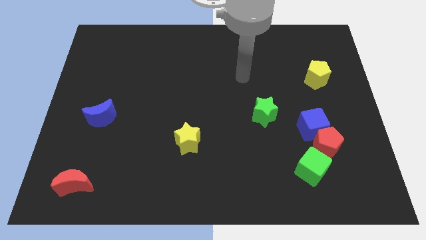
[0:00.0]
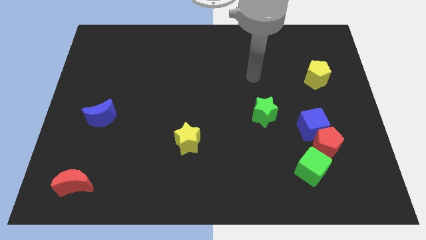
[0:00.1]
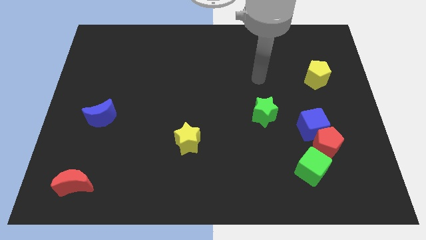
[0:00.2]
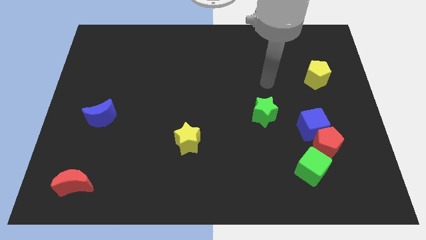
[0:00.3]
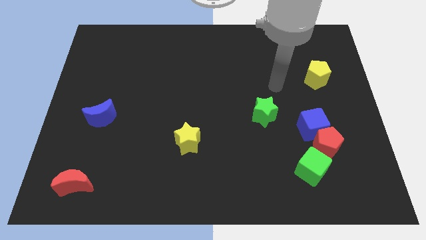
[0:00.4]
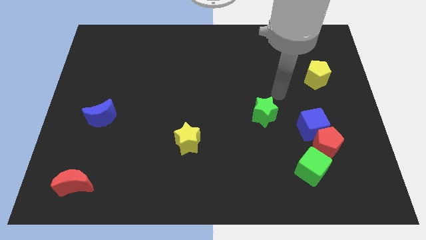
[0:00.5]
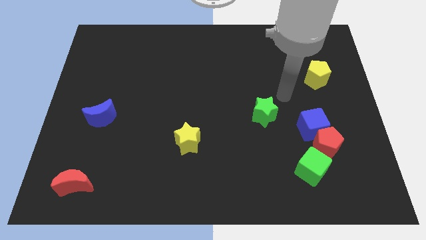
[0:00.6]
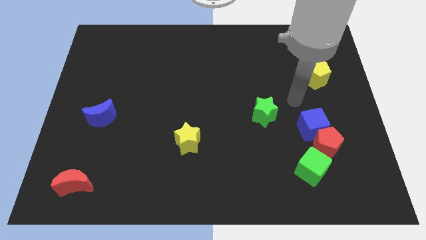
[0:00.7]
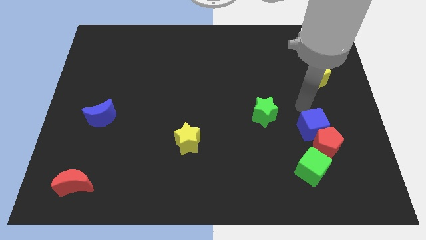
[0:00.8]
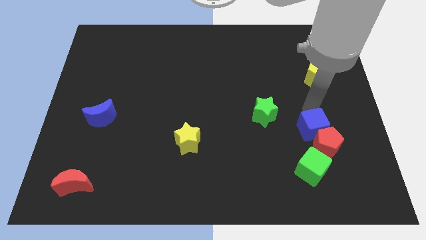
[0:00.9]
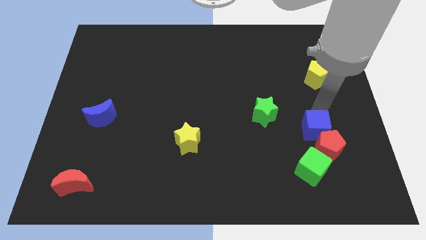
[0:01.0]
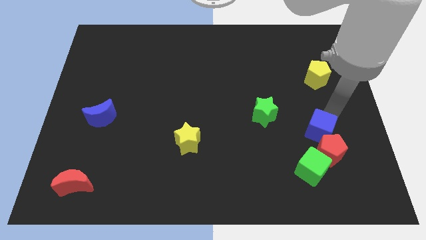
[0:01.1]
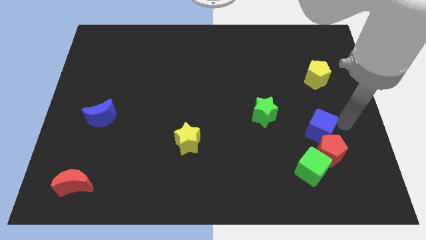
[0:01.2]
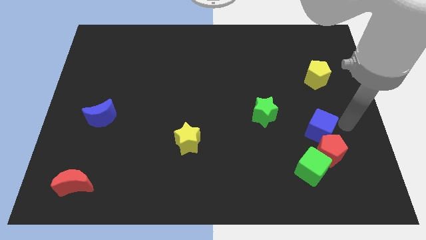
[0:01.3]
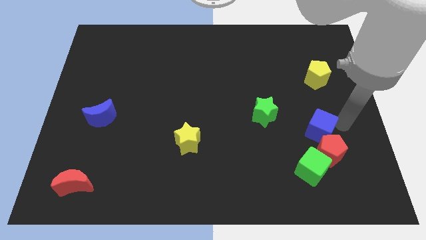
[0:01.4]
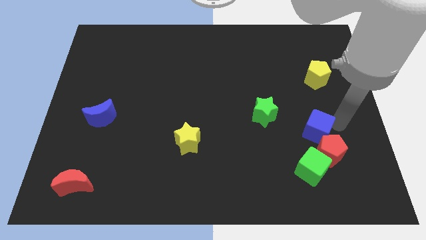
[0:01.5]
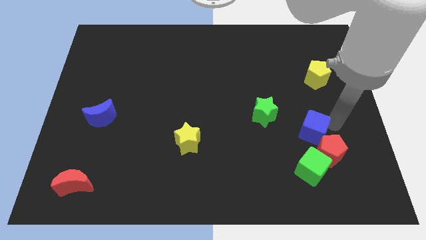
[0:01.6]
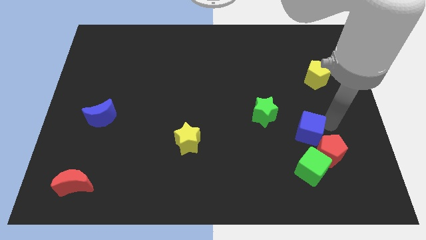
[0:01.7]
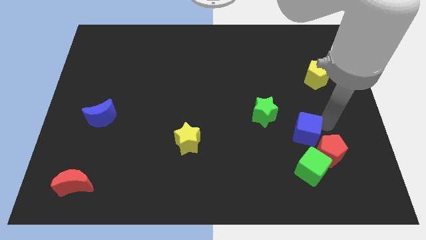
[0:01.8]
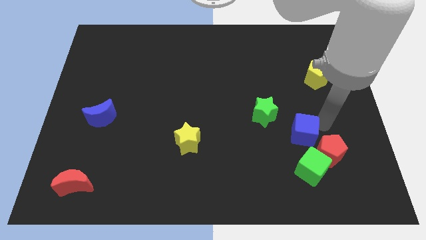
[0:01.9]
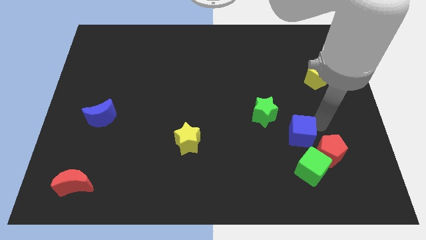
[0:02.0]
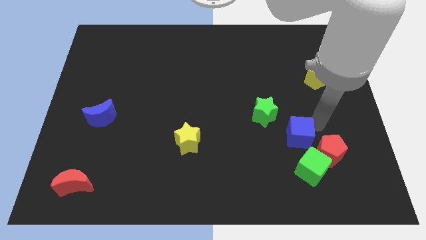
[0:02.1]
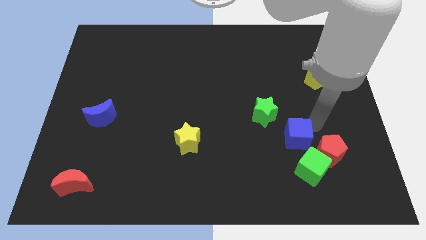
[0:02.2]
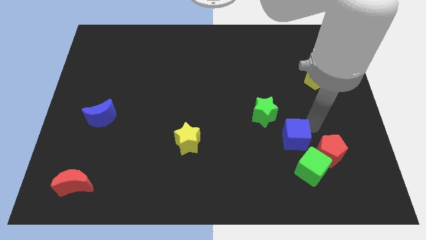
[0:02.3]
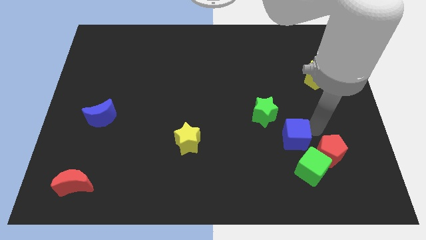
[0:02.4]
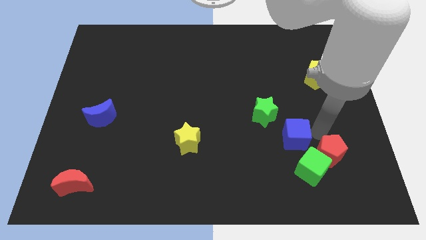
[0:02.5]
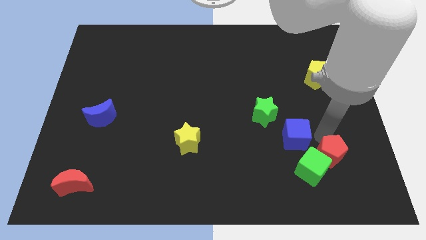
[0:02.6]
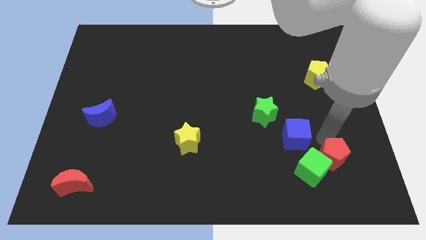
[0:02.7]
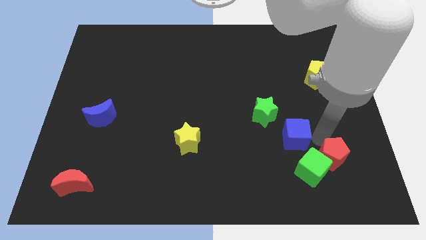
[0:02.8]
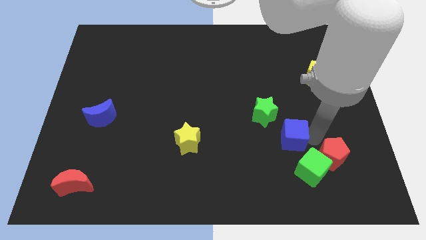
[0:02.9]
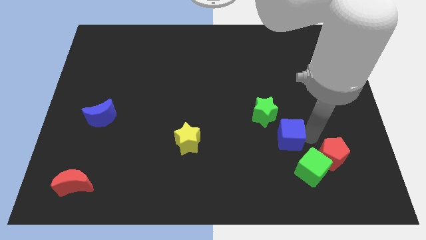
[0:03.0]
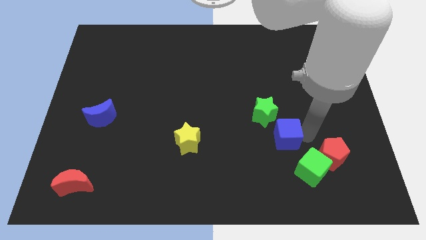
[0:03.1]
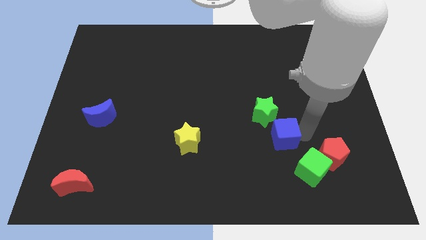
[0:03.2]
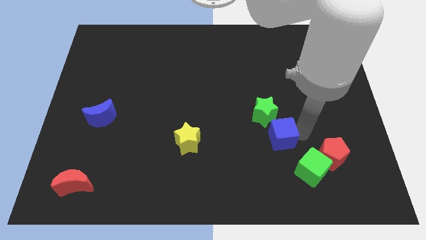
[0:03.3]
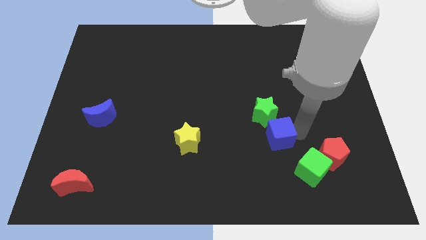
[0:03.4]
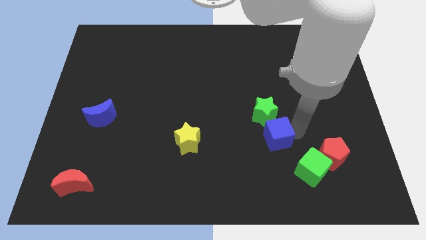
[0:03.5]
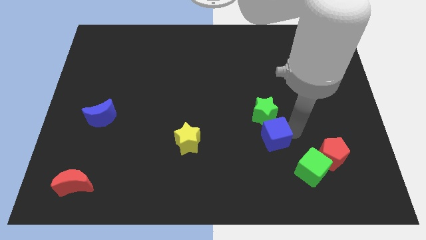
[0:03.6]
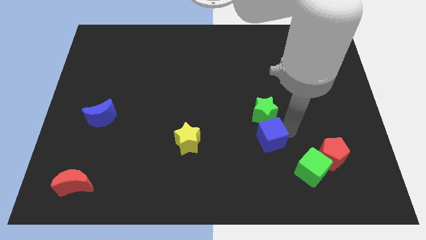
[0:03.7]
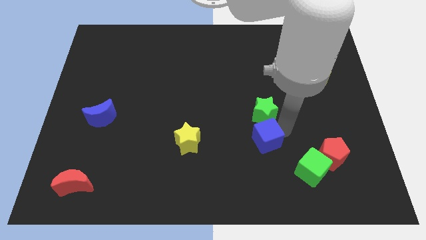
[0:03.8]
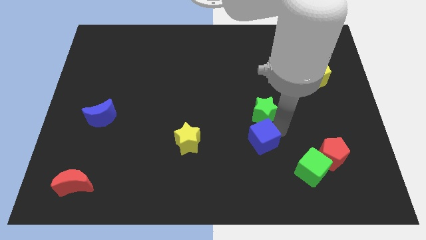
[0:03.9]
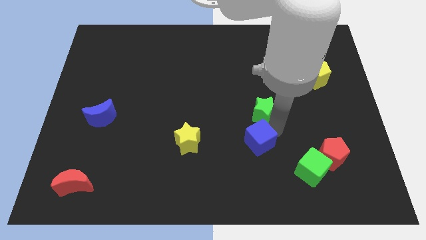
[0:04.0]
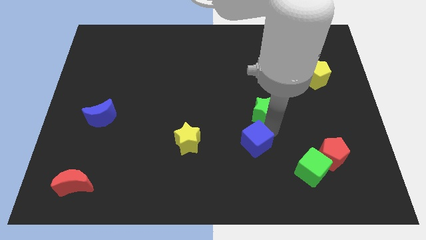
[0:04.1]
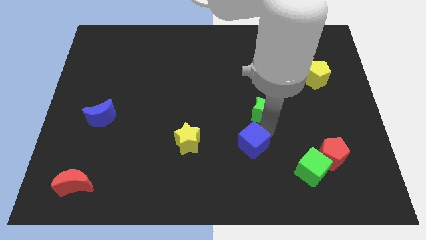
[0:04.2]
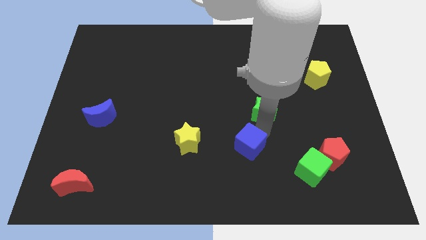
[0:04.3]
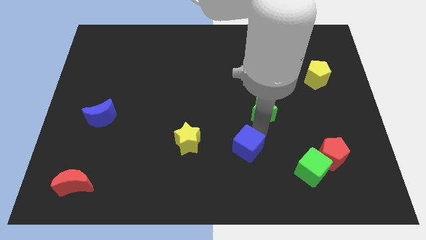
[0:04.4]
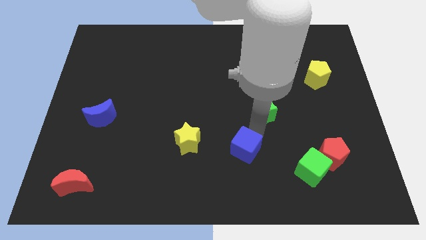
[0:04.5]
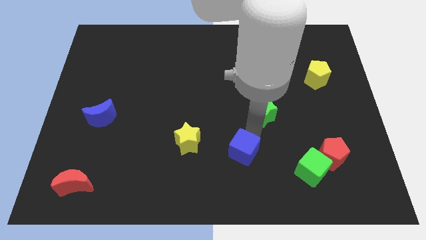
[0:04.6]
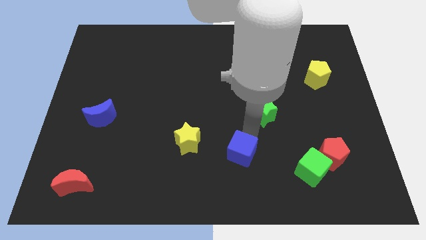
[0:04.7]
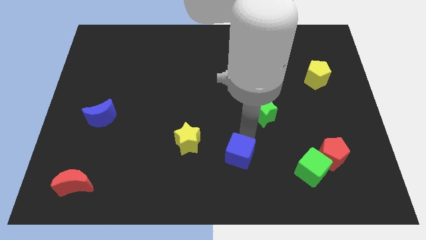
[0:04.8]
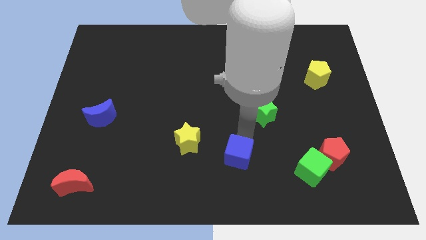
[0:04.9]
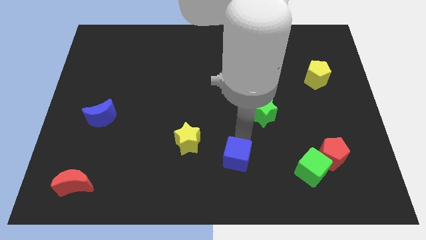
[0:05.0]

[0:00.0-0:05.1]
move the blue cube to the bottom
